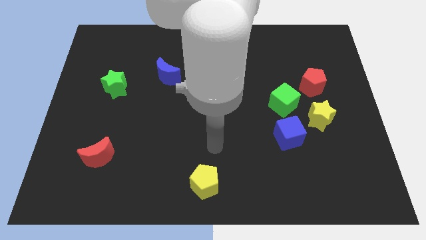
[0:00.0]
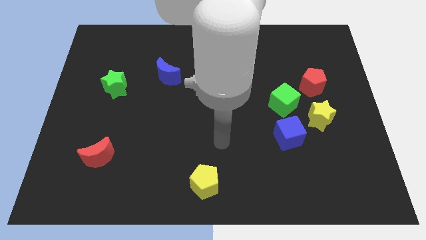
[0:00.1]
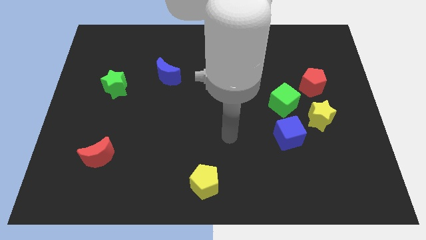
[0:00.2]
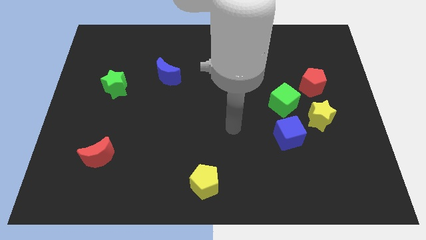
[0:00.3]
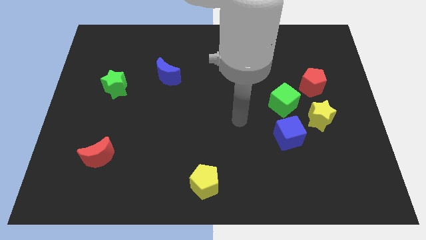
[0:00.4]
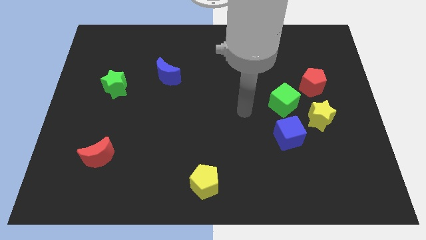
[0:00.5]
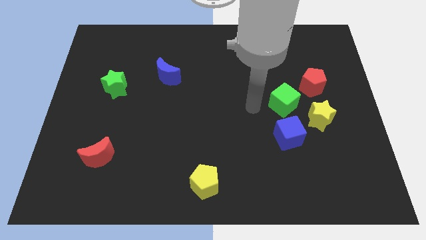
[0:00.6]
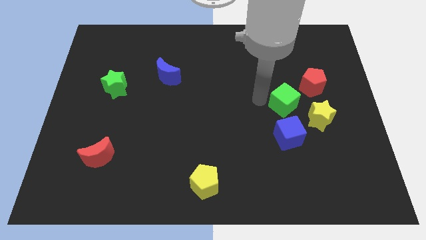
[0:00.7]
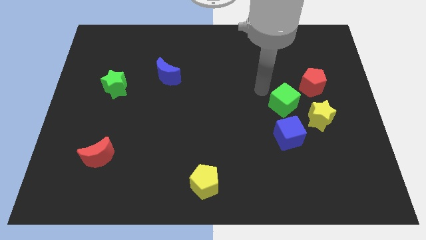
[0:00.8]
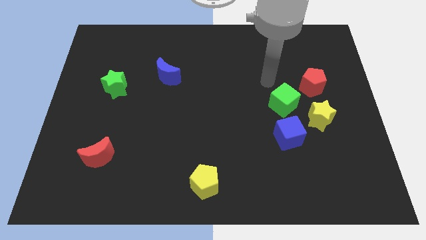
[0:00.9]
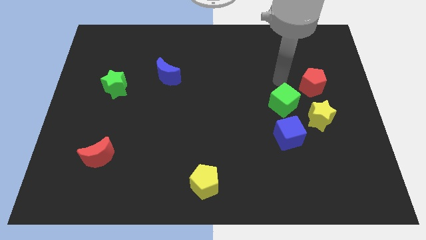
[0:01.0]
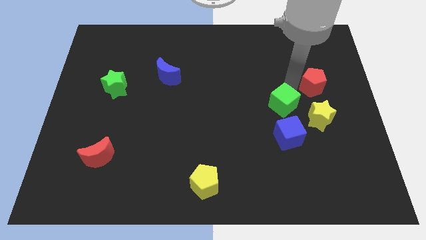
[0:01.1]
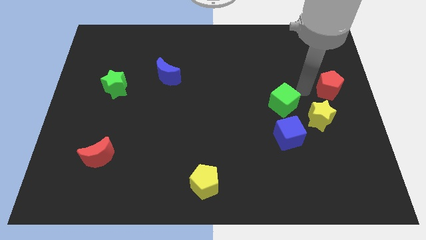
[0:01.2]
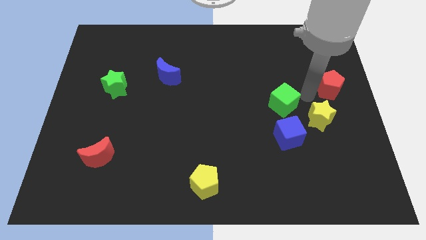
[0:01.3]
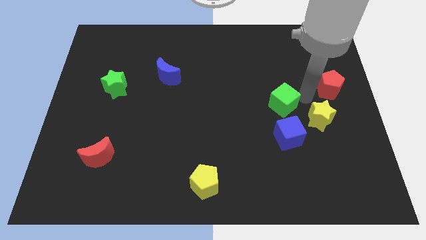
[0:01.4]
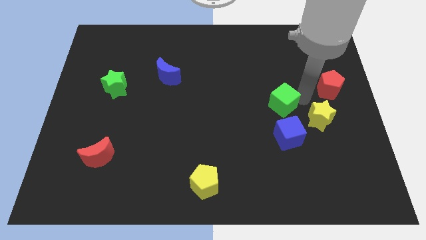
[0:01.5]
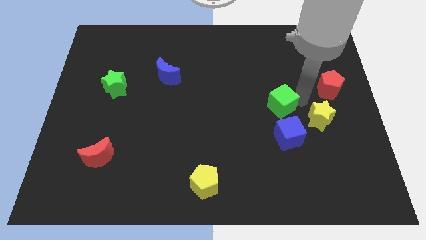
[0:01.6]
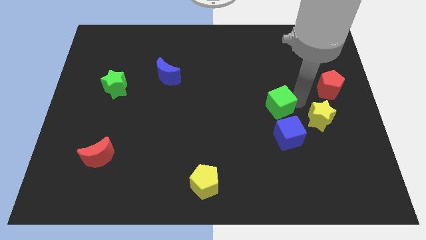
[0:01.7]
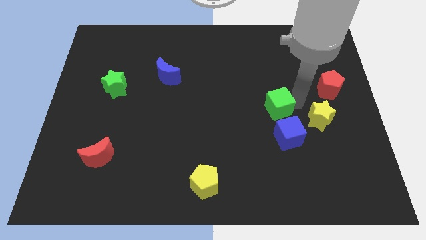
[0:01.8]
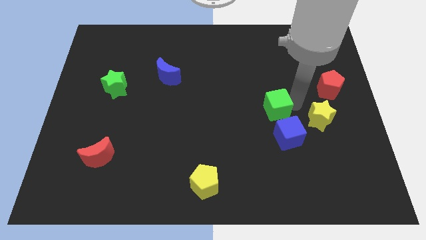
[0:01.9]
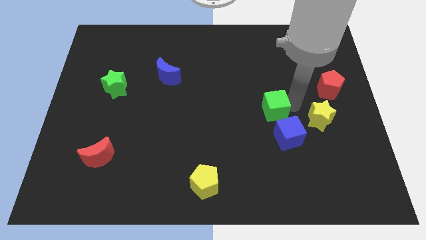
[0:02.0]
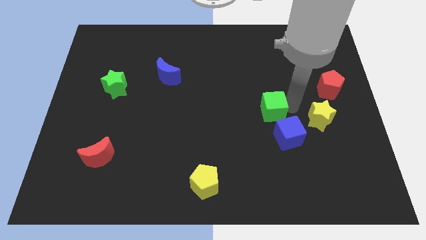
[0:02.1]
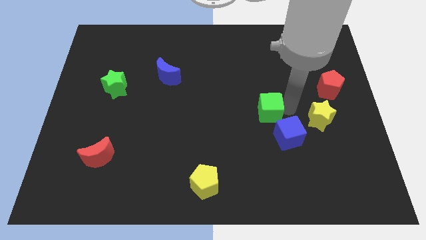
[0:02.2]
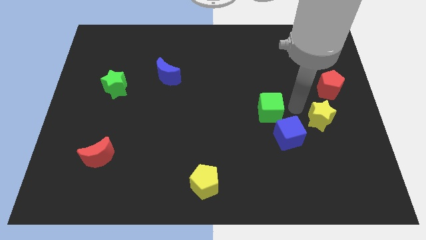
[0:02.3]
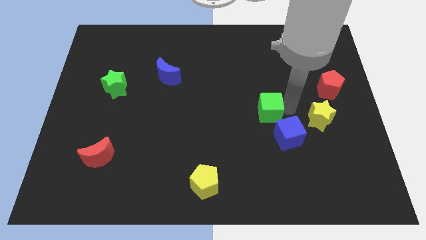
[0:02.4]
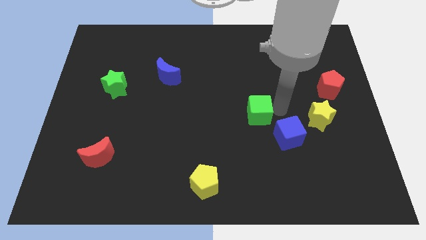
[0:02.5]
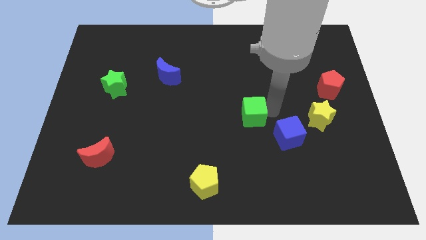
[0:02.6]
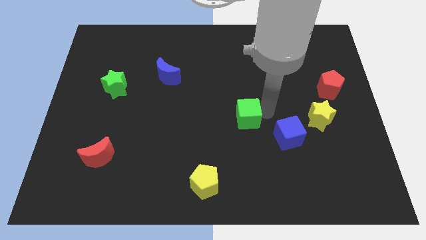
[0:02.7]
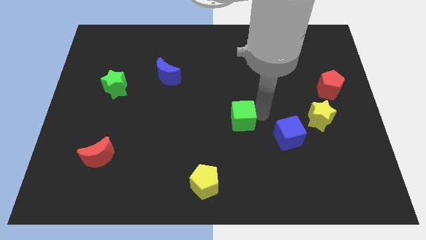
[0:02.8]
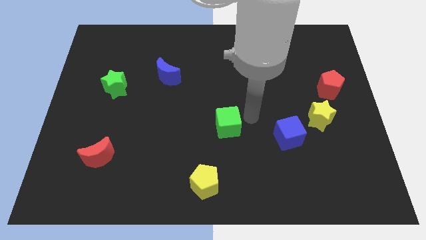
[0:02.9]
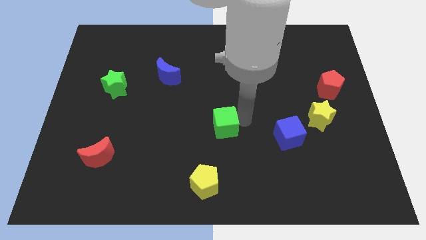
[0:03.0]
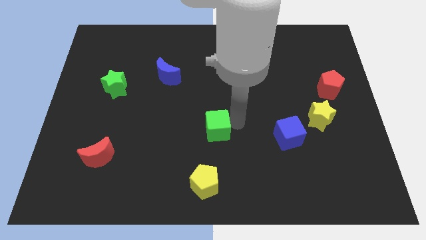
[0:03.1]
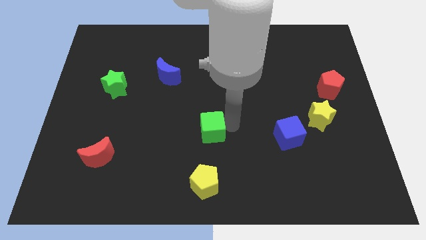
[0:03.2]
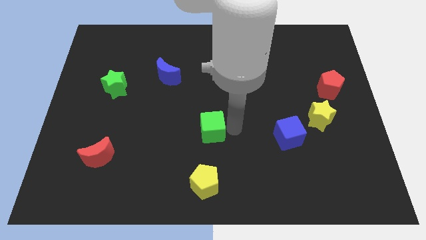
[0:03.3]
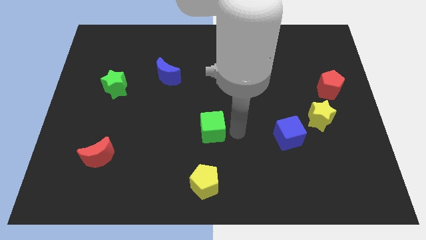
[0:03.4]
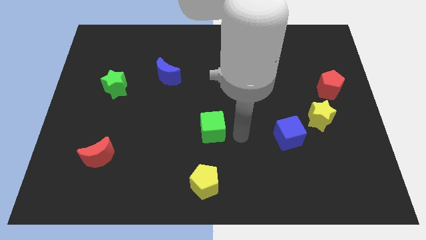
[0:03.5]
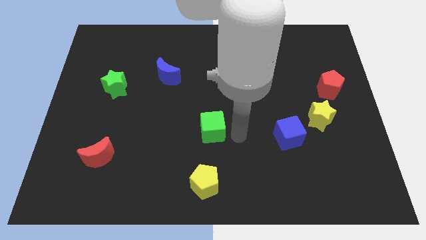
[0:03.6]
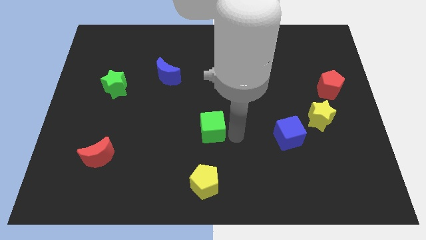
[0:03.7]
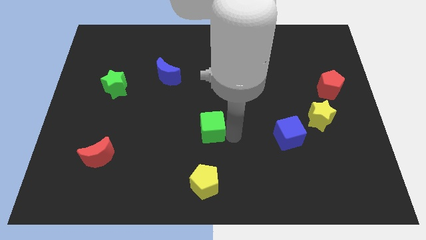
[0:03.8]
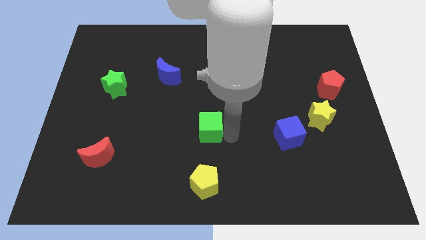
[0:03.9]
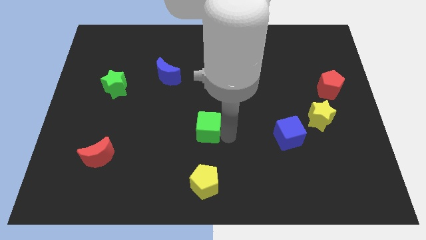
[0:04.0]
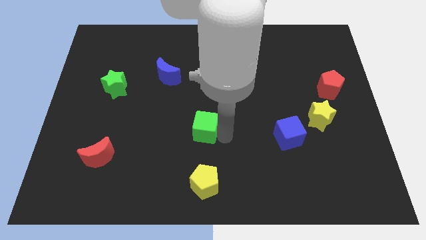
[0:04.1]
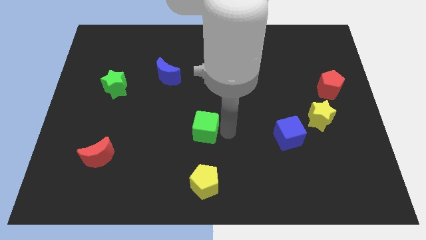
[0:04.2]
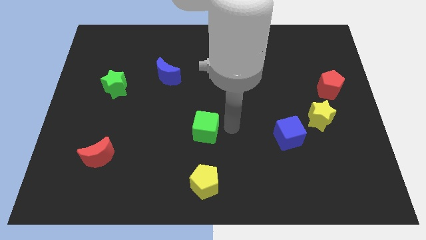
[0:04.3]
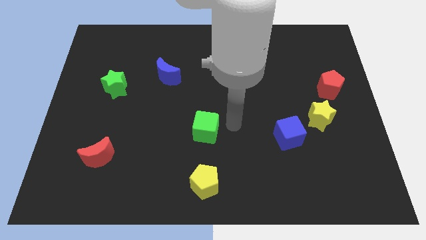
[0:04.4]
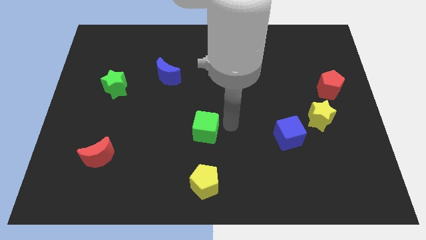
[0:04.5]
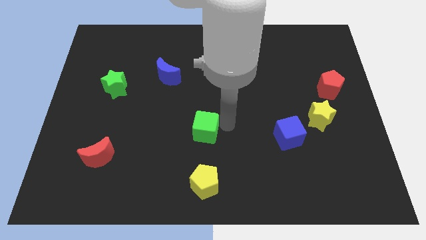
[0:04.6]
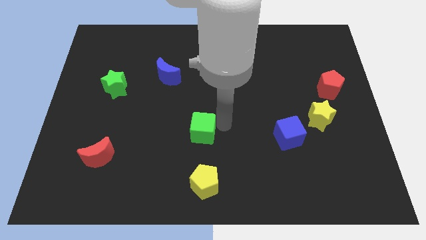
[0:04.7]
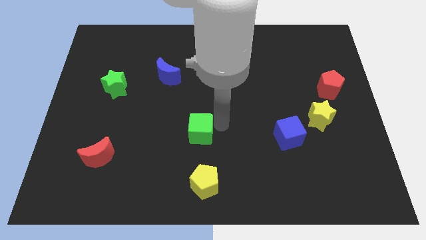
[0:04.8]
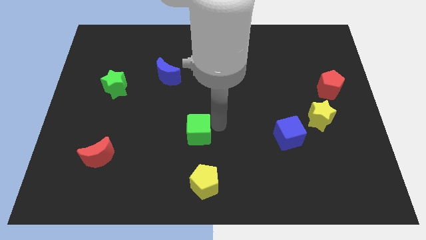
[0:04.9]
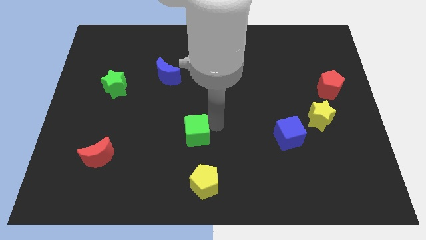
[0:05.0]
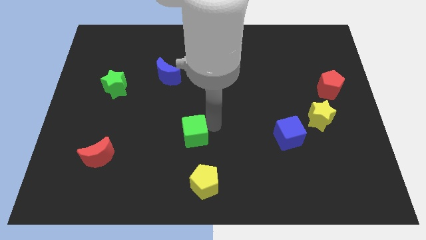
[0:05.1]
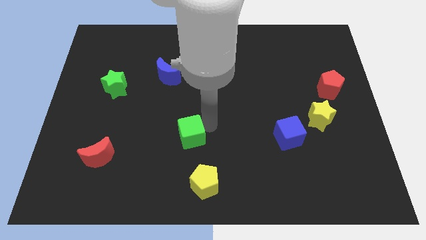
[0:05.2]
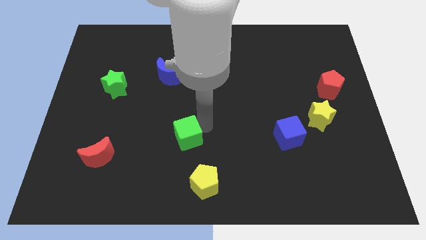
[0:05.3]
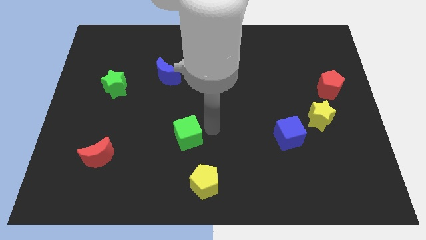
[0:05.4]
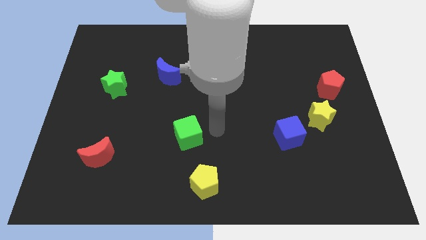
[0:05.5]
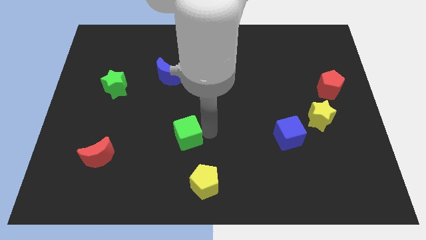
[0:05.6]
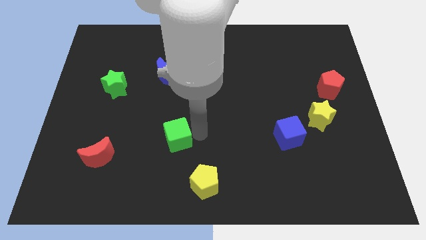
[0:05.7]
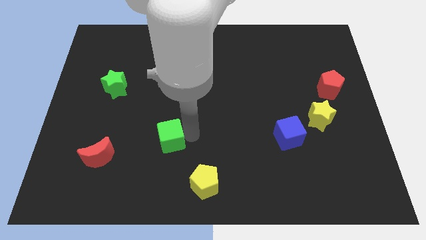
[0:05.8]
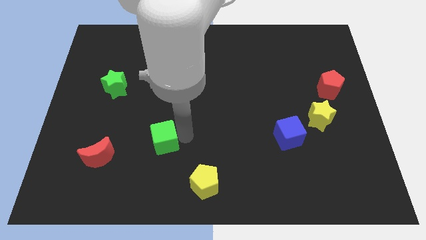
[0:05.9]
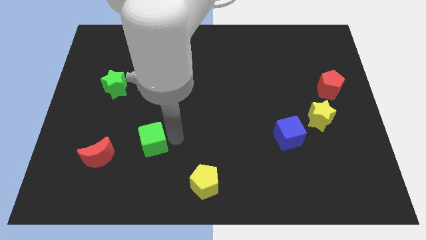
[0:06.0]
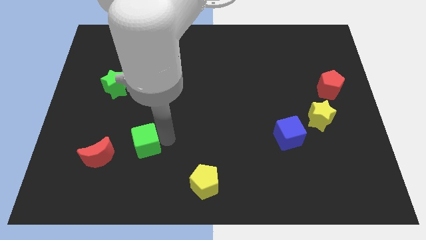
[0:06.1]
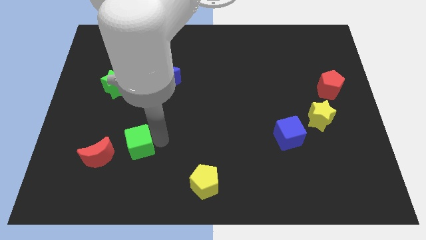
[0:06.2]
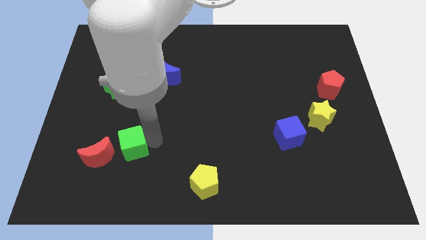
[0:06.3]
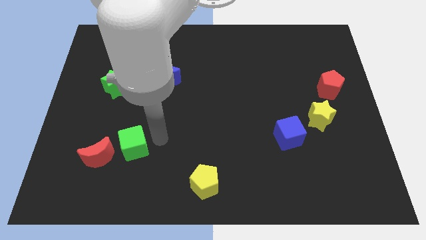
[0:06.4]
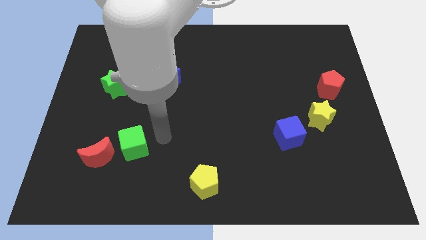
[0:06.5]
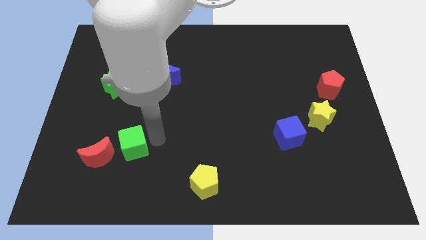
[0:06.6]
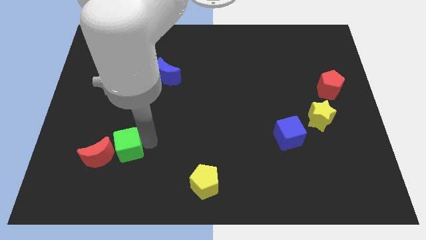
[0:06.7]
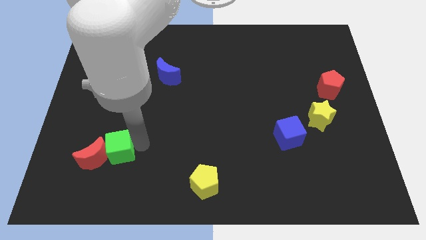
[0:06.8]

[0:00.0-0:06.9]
slide the green cube next to the red moon
